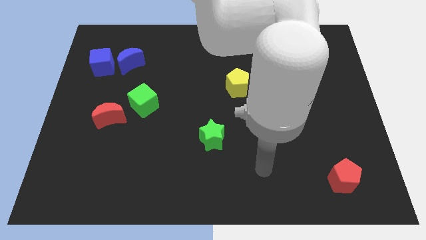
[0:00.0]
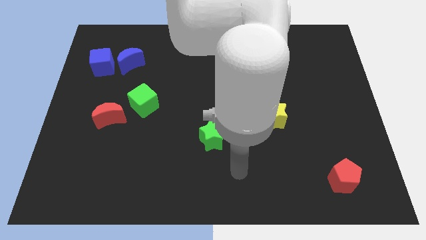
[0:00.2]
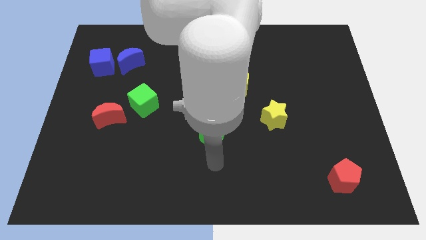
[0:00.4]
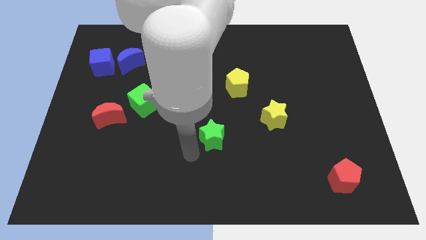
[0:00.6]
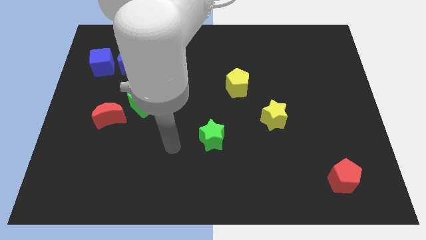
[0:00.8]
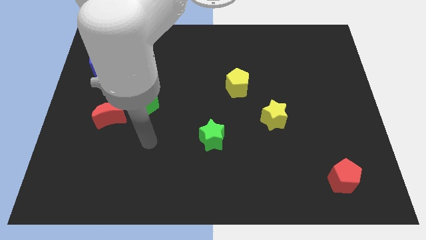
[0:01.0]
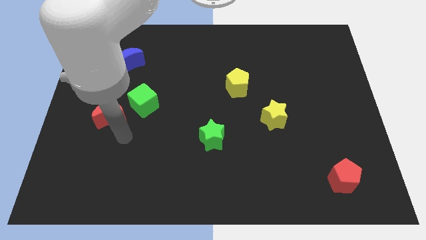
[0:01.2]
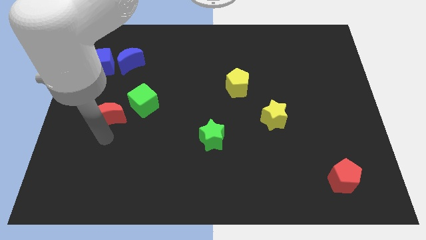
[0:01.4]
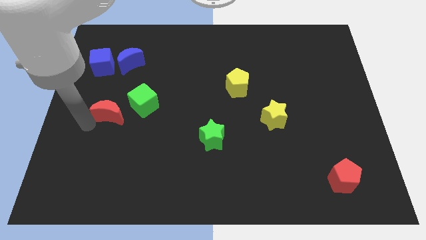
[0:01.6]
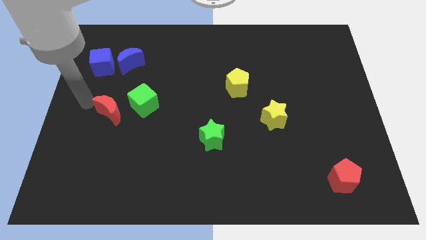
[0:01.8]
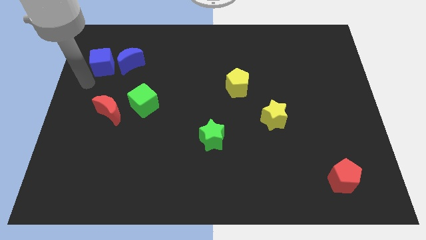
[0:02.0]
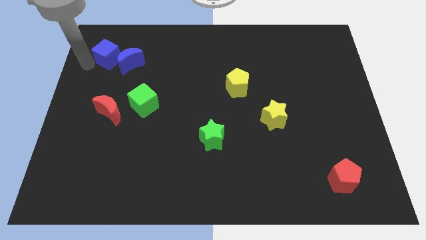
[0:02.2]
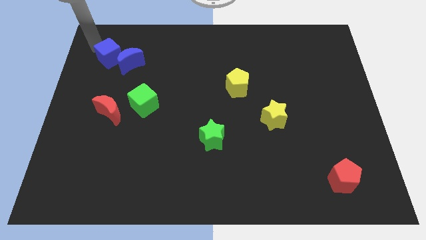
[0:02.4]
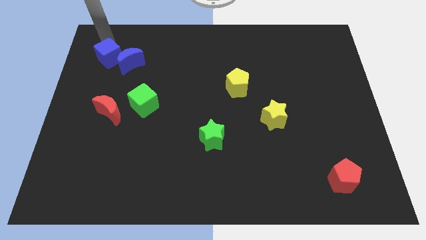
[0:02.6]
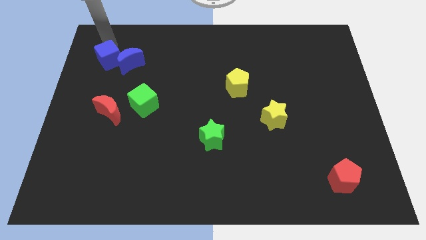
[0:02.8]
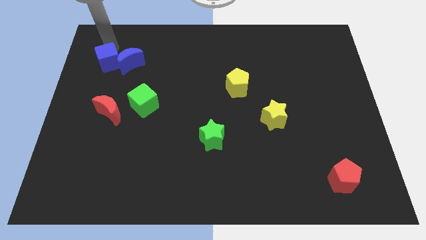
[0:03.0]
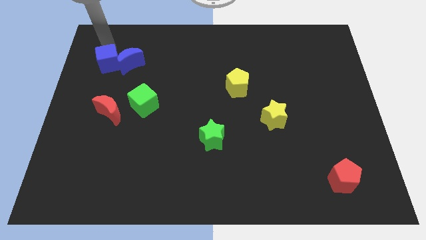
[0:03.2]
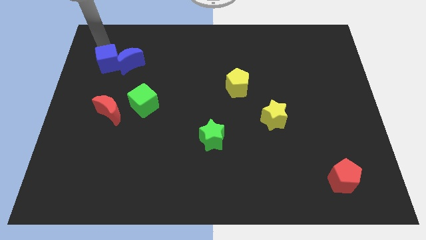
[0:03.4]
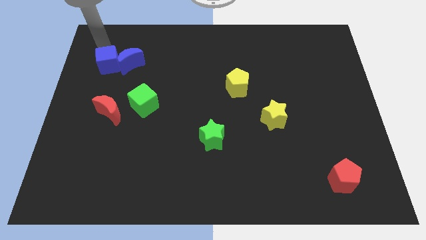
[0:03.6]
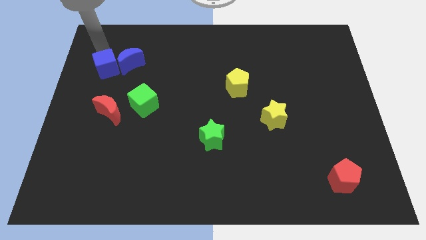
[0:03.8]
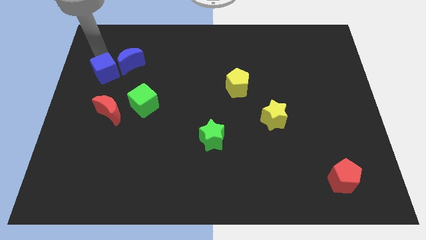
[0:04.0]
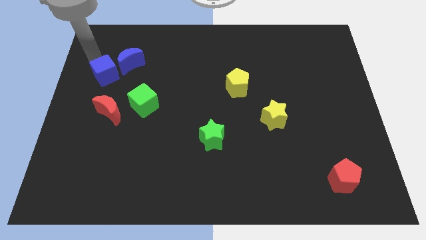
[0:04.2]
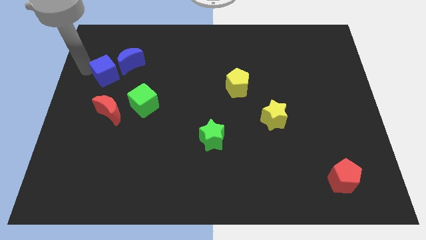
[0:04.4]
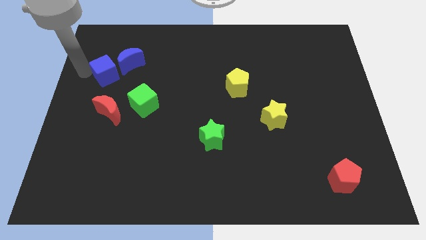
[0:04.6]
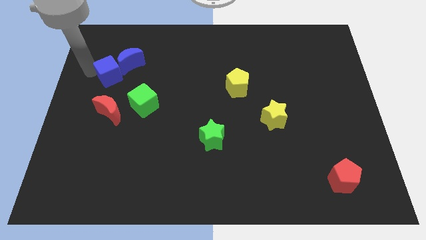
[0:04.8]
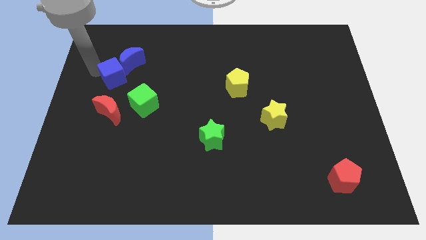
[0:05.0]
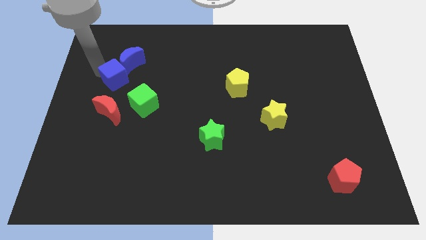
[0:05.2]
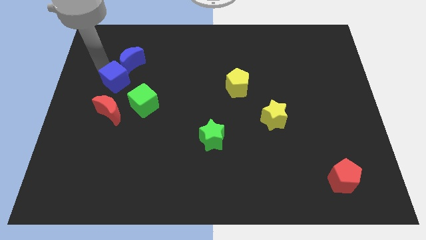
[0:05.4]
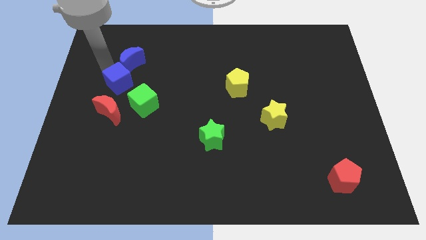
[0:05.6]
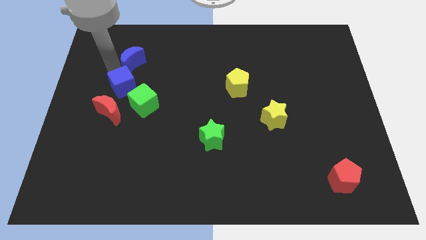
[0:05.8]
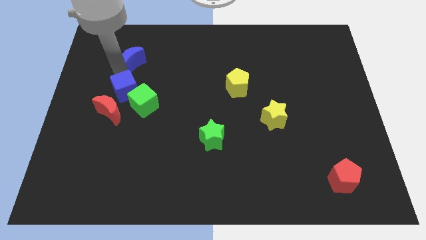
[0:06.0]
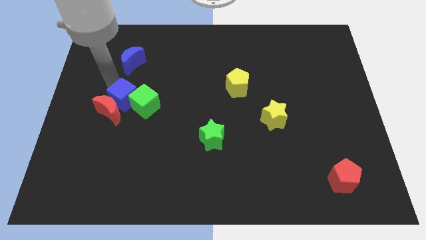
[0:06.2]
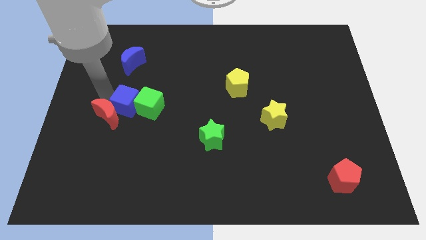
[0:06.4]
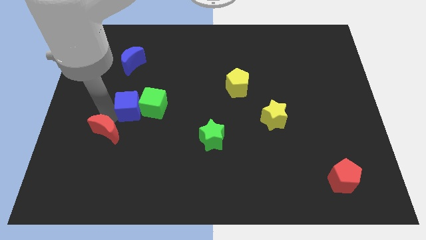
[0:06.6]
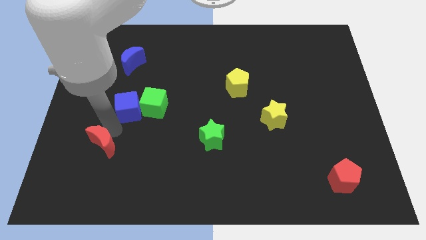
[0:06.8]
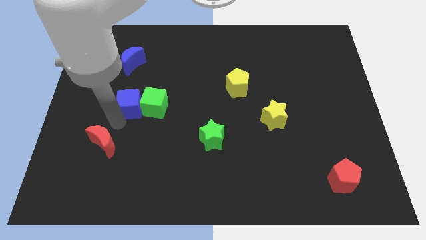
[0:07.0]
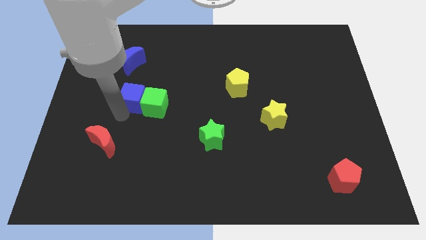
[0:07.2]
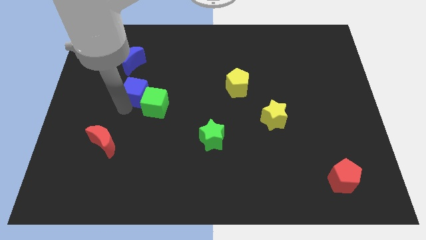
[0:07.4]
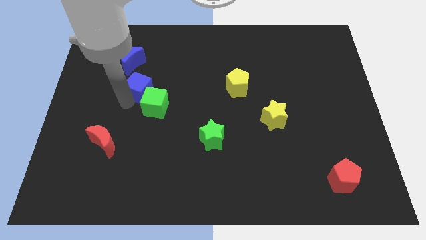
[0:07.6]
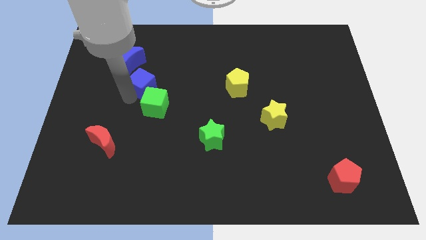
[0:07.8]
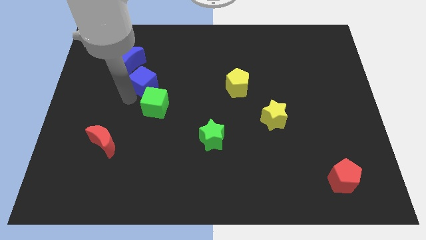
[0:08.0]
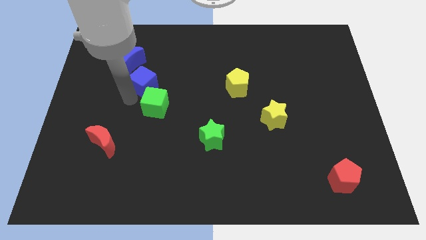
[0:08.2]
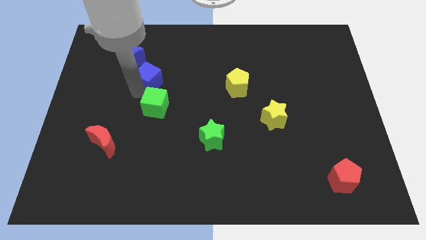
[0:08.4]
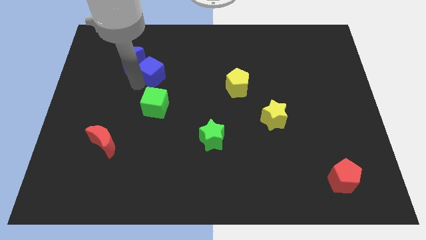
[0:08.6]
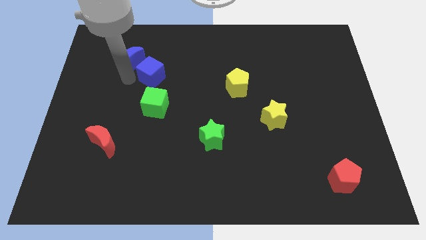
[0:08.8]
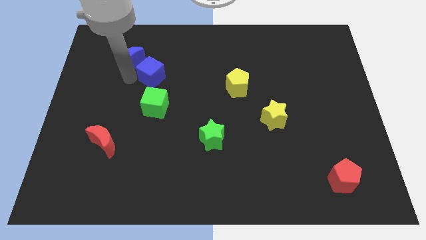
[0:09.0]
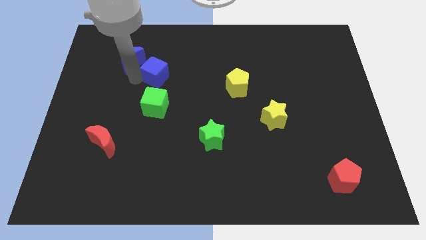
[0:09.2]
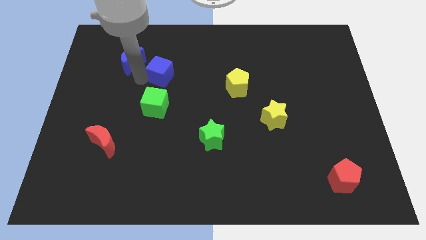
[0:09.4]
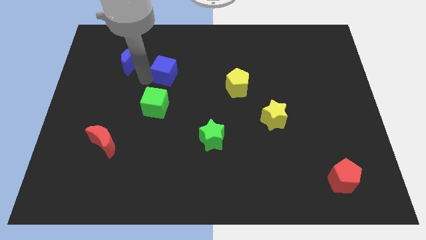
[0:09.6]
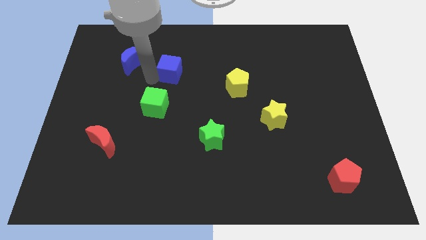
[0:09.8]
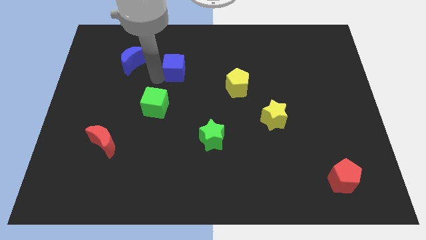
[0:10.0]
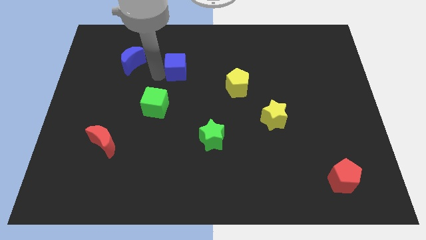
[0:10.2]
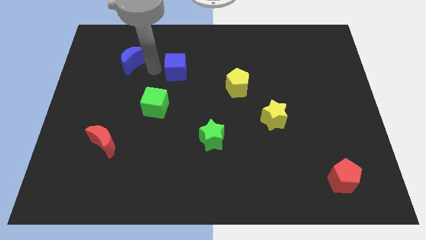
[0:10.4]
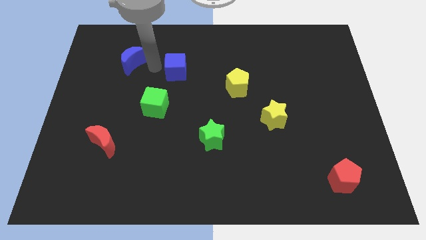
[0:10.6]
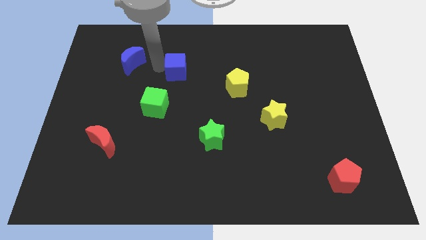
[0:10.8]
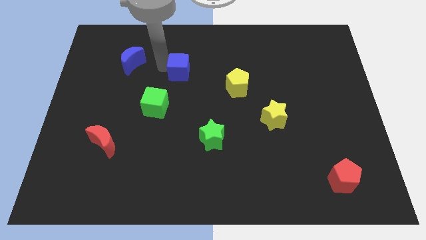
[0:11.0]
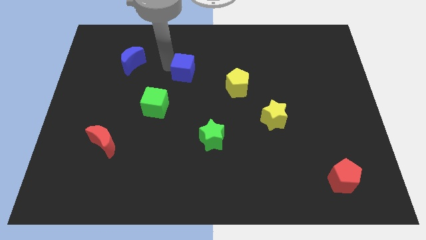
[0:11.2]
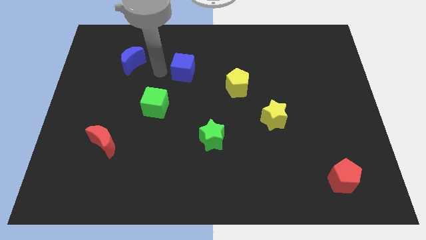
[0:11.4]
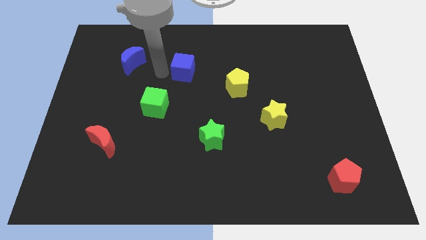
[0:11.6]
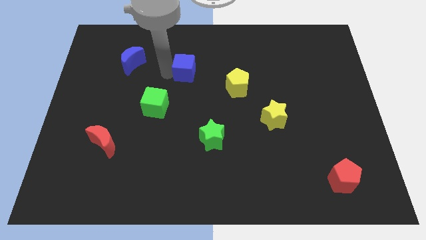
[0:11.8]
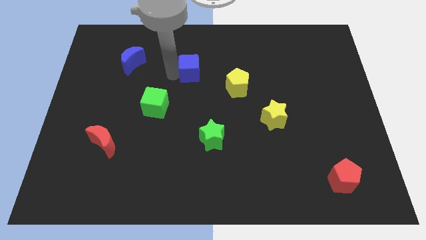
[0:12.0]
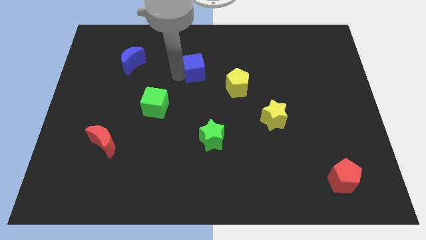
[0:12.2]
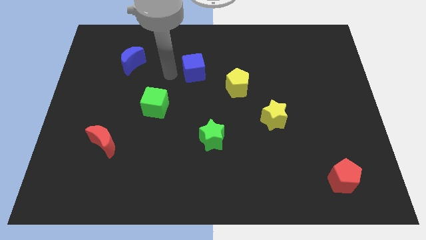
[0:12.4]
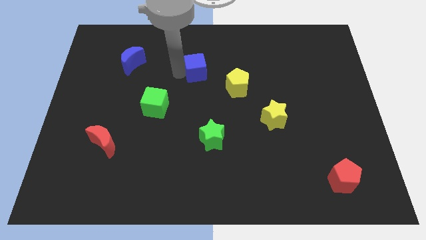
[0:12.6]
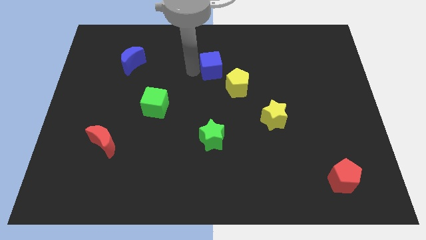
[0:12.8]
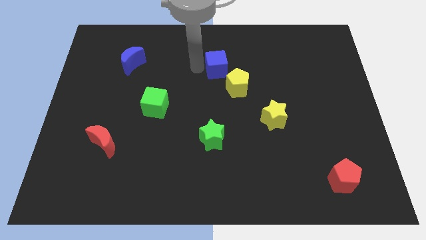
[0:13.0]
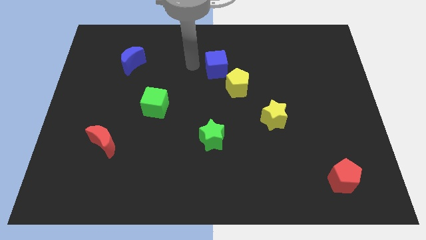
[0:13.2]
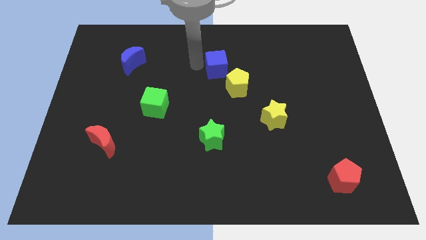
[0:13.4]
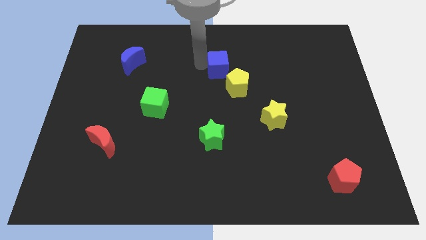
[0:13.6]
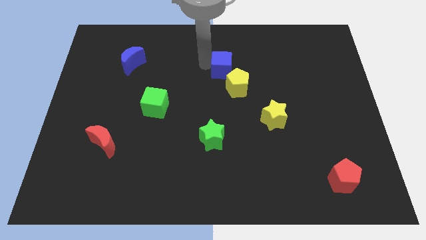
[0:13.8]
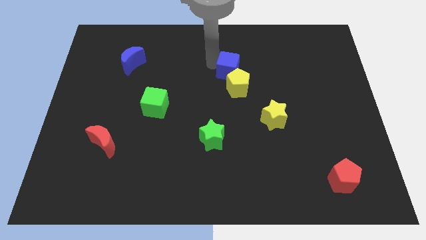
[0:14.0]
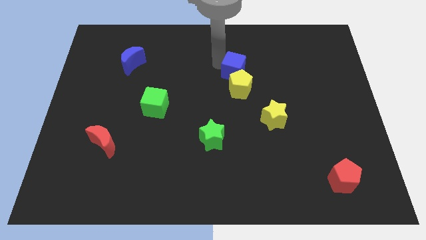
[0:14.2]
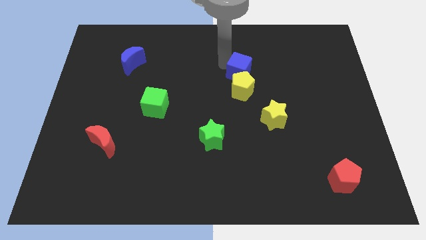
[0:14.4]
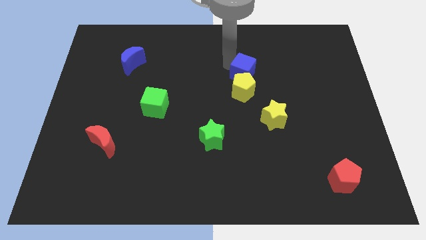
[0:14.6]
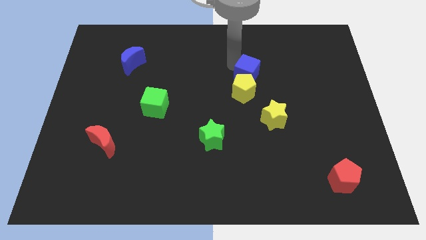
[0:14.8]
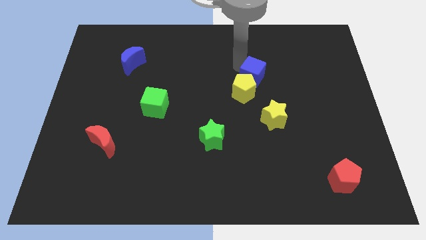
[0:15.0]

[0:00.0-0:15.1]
push the blue cube to the top of the yellow star
